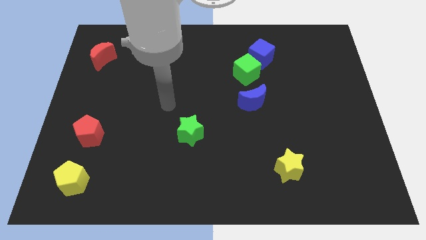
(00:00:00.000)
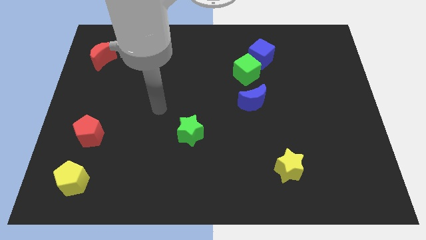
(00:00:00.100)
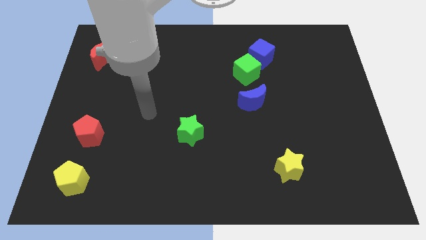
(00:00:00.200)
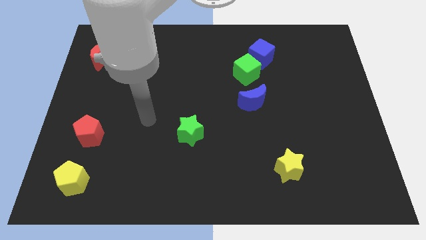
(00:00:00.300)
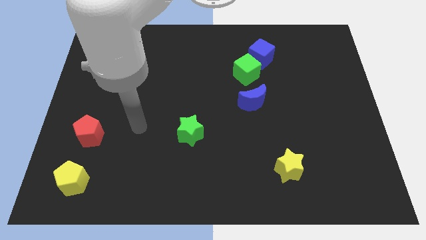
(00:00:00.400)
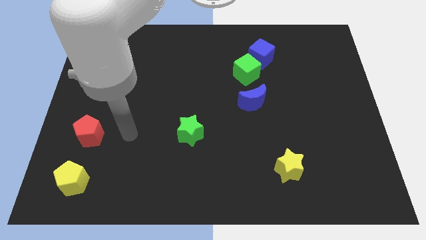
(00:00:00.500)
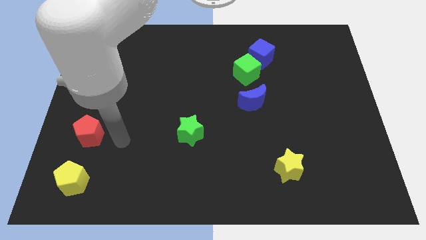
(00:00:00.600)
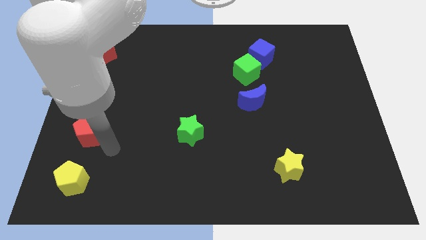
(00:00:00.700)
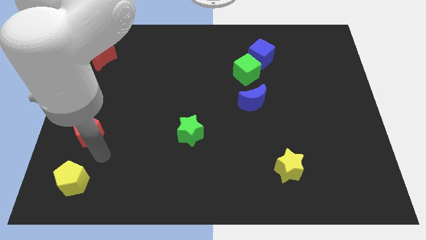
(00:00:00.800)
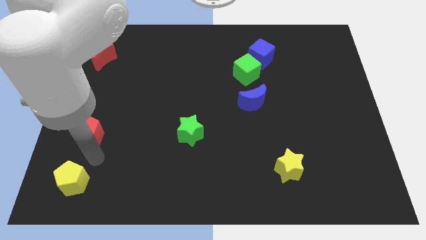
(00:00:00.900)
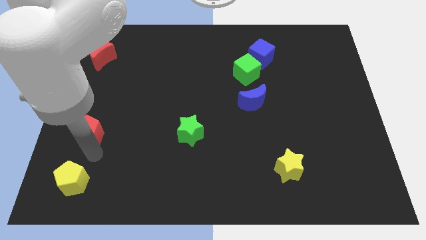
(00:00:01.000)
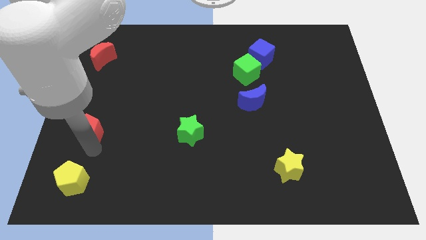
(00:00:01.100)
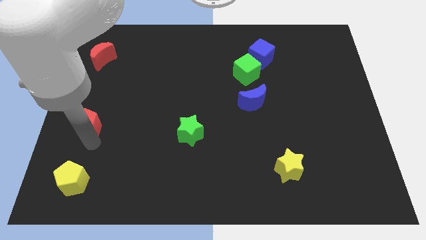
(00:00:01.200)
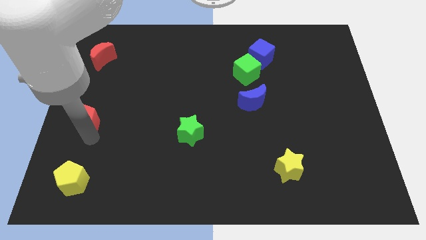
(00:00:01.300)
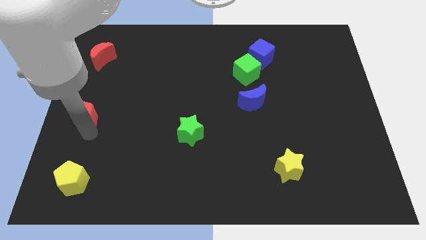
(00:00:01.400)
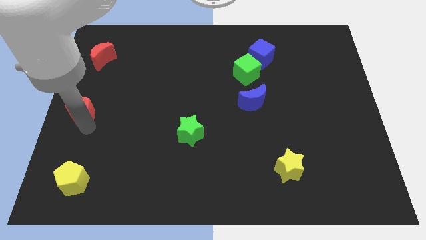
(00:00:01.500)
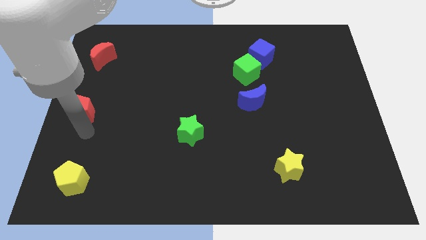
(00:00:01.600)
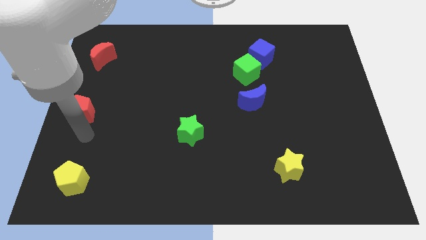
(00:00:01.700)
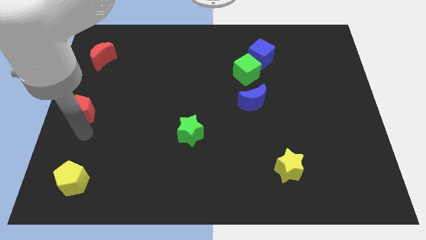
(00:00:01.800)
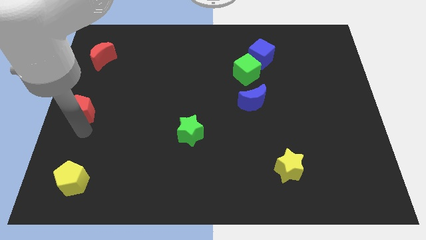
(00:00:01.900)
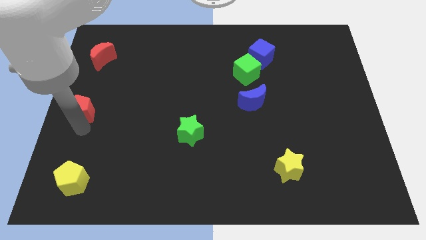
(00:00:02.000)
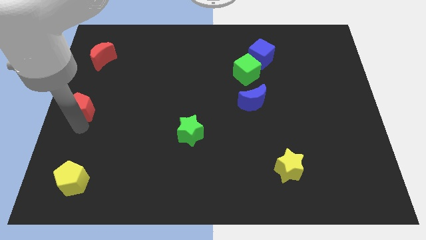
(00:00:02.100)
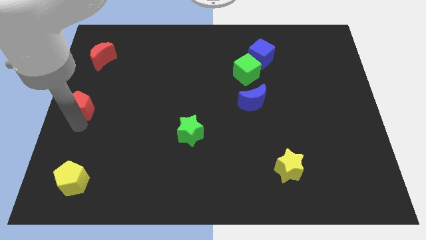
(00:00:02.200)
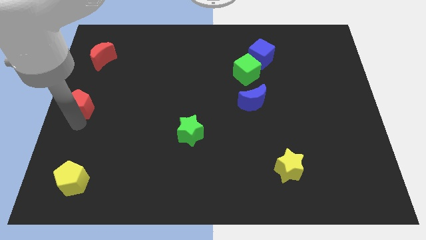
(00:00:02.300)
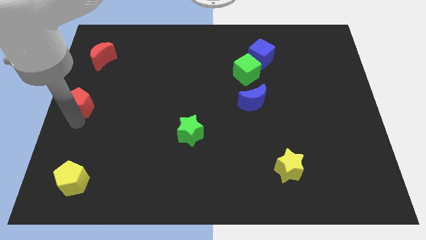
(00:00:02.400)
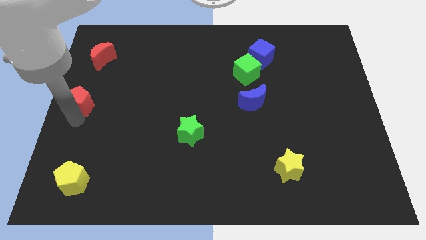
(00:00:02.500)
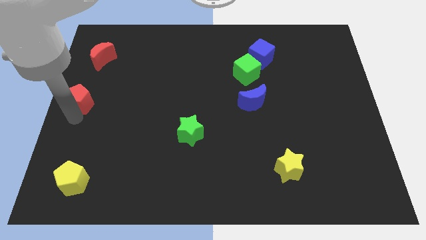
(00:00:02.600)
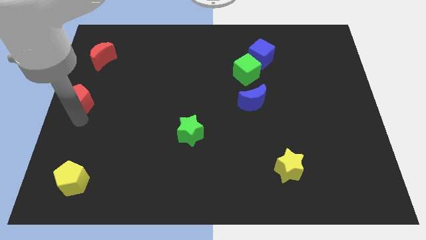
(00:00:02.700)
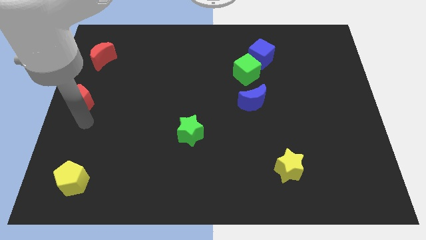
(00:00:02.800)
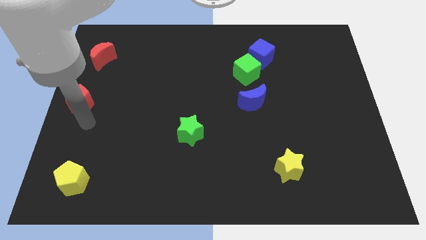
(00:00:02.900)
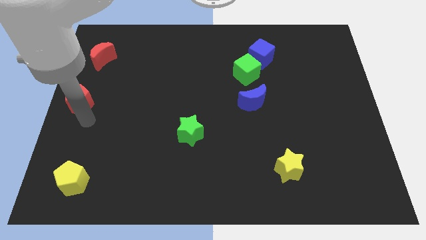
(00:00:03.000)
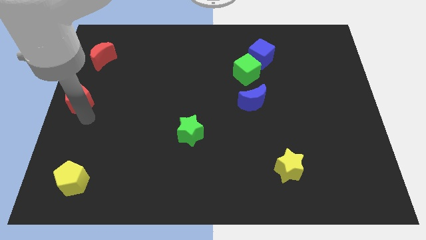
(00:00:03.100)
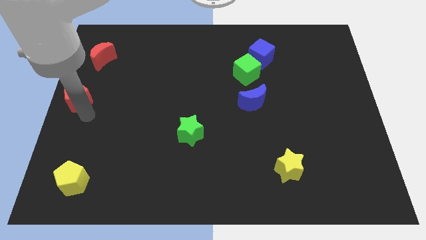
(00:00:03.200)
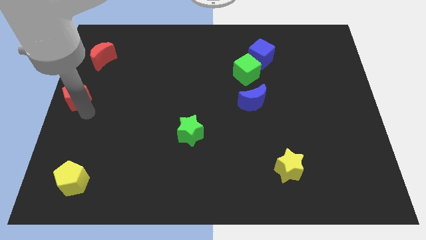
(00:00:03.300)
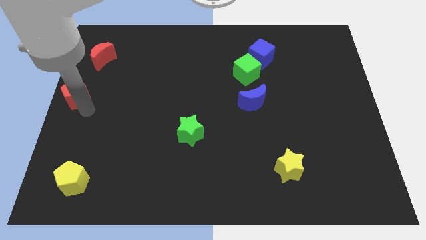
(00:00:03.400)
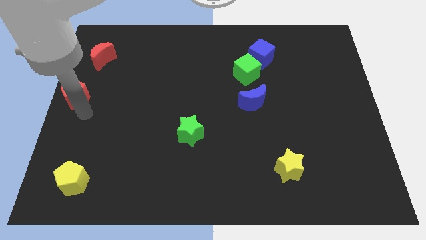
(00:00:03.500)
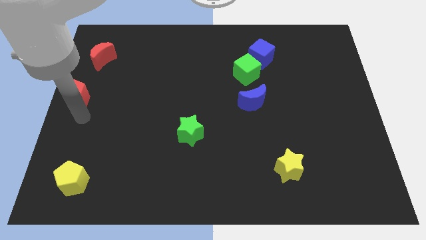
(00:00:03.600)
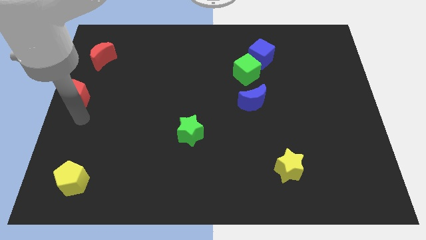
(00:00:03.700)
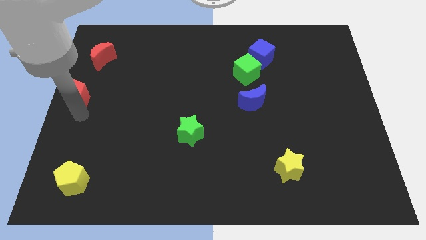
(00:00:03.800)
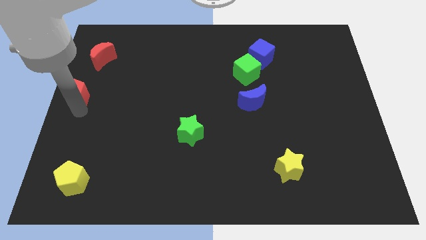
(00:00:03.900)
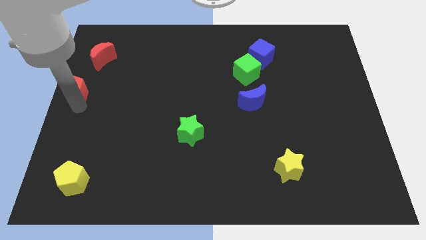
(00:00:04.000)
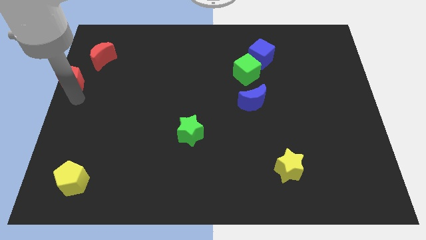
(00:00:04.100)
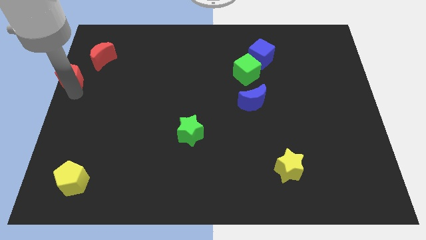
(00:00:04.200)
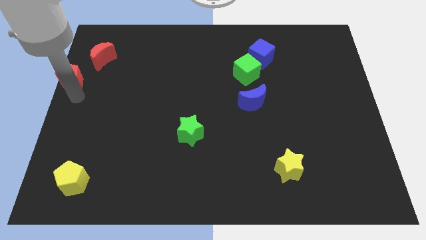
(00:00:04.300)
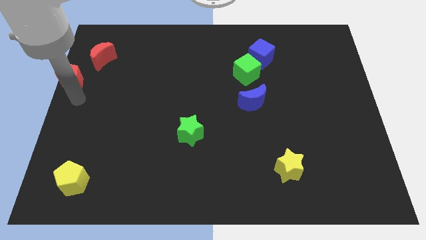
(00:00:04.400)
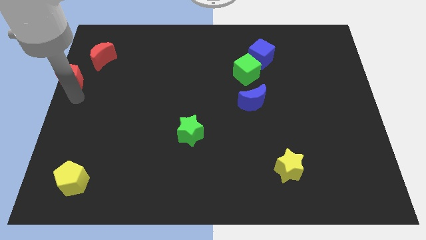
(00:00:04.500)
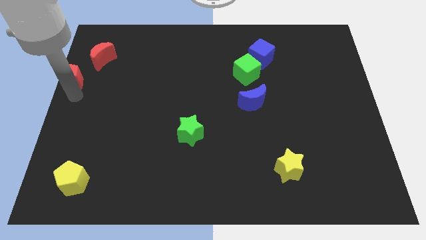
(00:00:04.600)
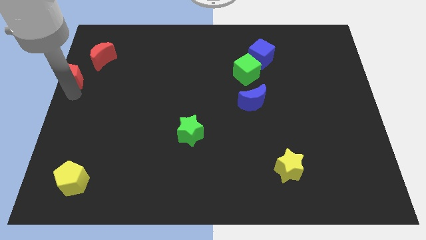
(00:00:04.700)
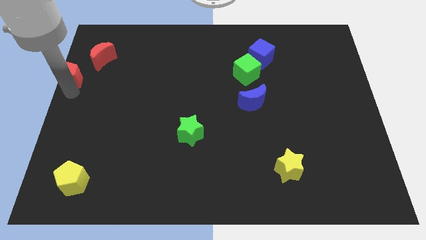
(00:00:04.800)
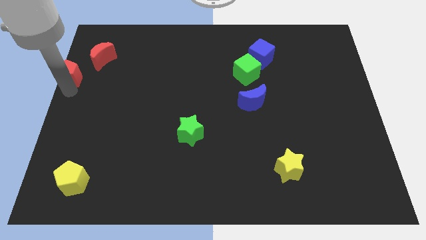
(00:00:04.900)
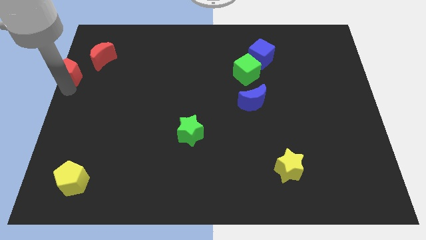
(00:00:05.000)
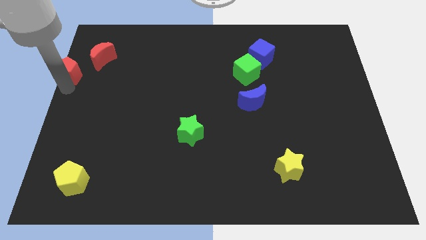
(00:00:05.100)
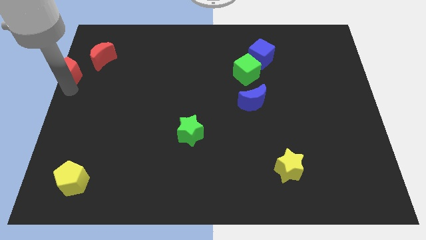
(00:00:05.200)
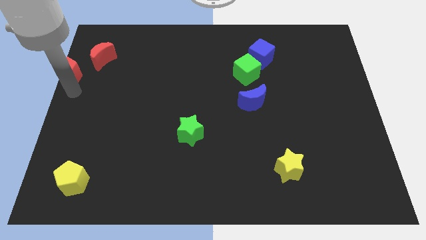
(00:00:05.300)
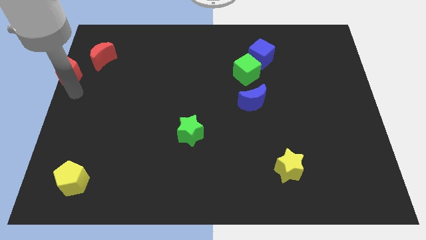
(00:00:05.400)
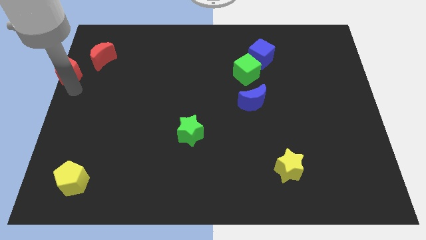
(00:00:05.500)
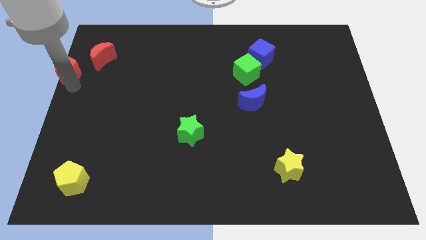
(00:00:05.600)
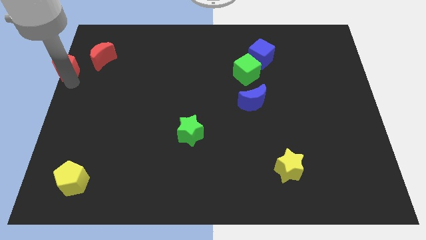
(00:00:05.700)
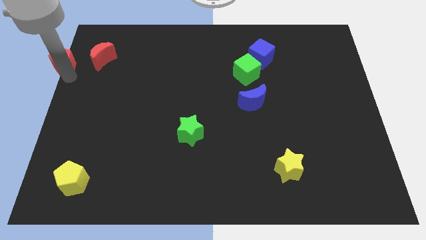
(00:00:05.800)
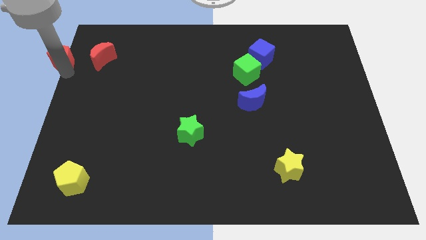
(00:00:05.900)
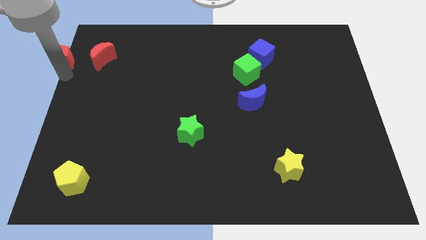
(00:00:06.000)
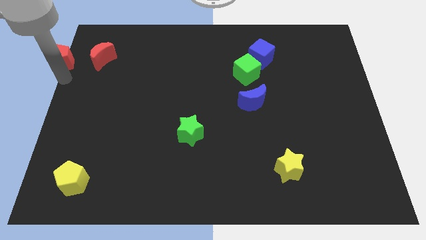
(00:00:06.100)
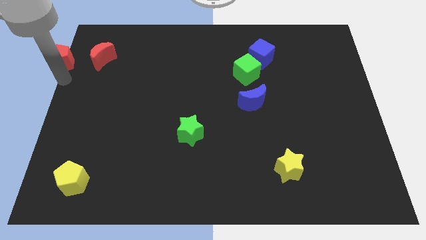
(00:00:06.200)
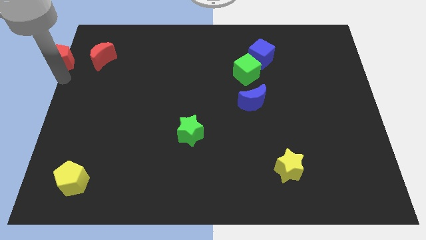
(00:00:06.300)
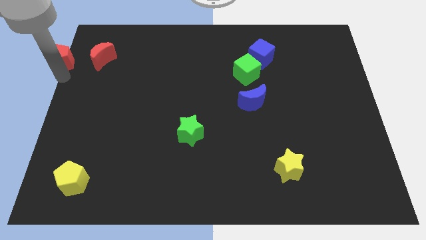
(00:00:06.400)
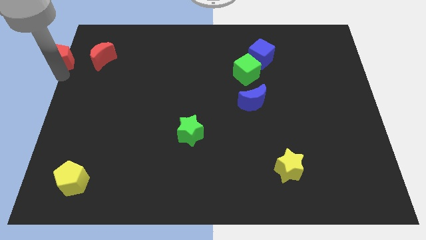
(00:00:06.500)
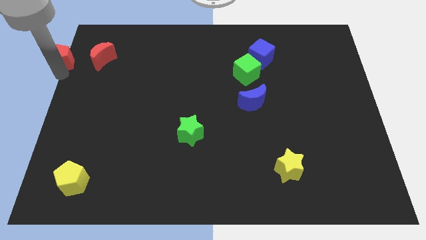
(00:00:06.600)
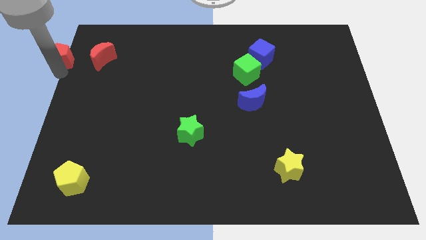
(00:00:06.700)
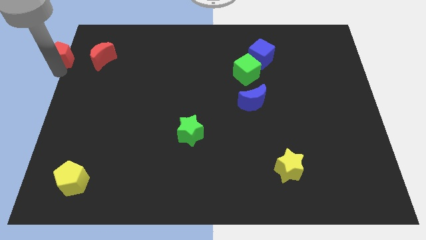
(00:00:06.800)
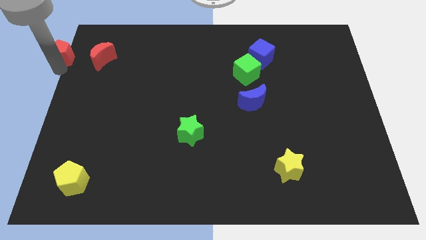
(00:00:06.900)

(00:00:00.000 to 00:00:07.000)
slide the red pentagon to the upper left corner
